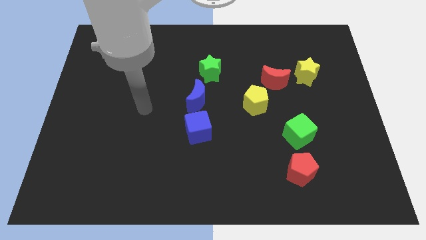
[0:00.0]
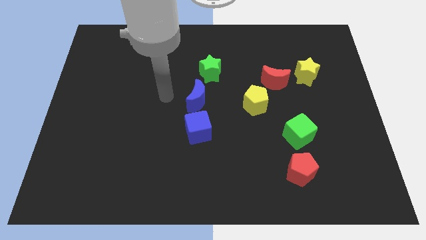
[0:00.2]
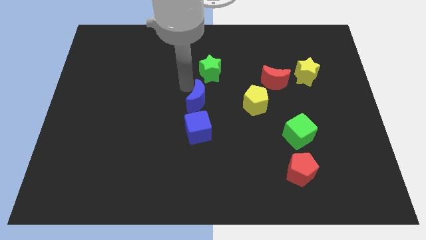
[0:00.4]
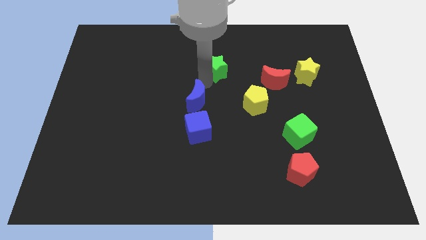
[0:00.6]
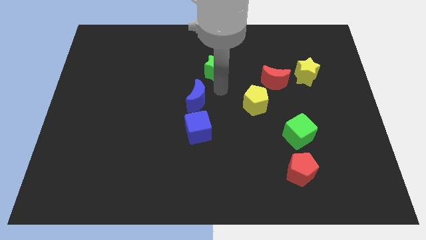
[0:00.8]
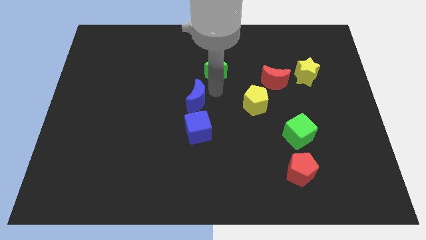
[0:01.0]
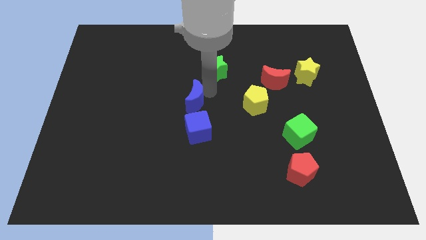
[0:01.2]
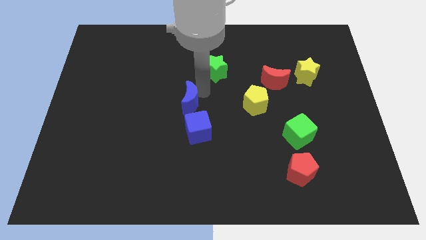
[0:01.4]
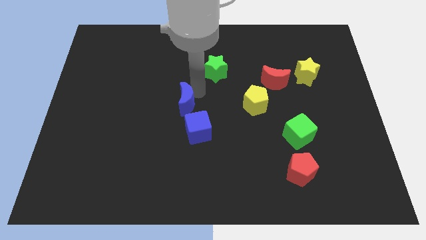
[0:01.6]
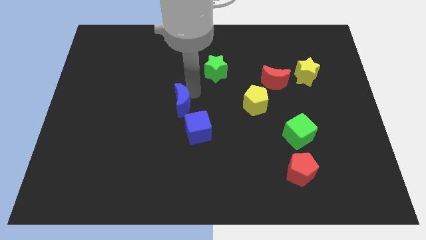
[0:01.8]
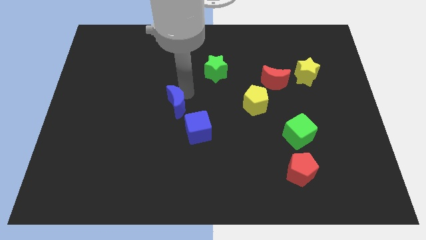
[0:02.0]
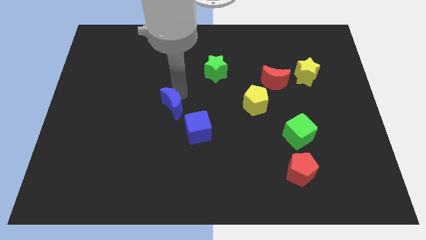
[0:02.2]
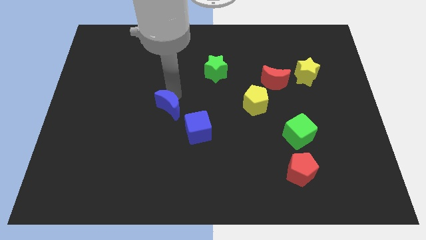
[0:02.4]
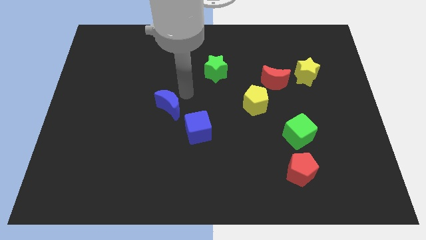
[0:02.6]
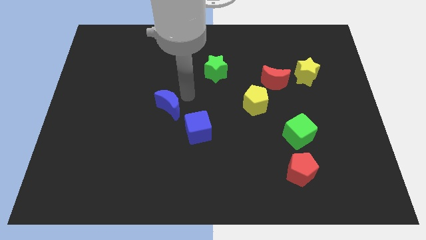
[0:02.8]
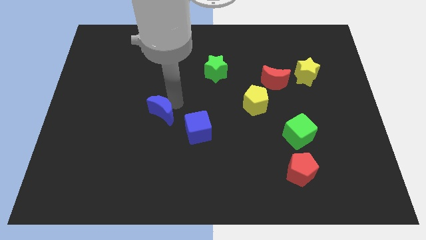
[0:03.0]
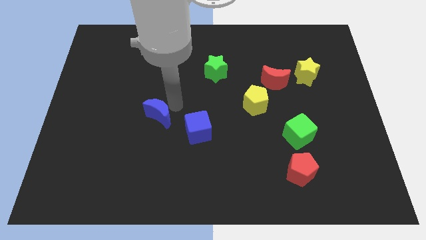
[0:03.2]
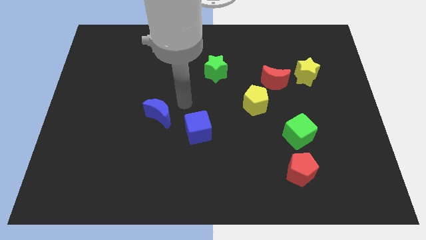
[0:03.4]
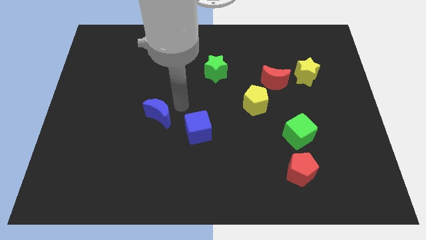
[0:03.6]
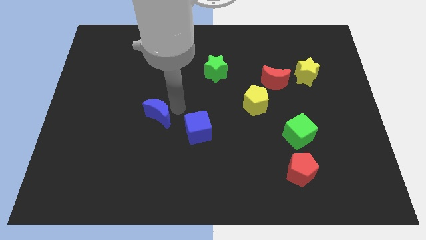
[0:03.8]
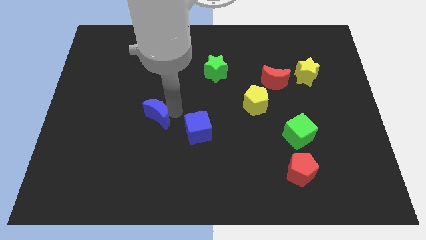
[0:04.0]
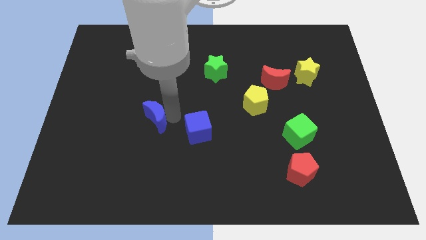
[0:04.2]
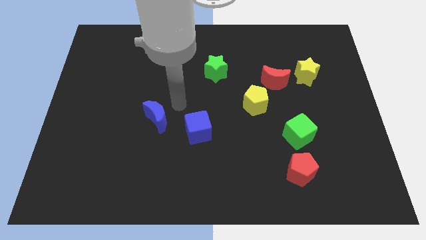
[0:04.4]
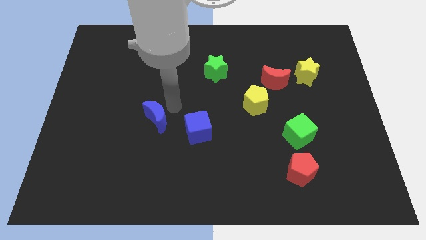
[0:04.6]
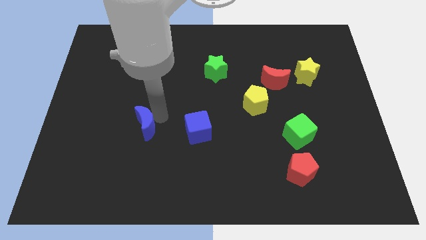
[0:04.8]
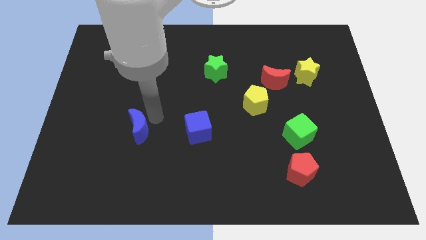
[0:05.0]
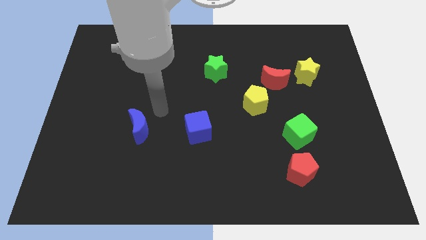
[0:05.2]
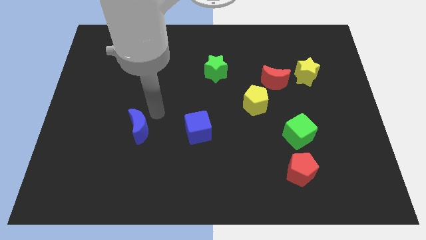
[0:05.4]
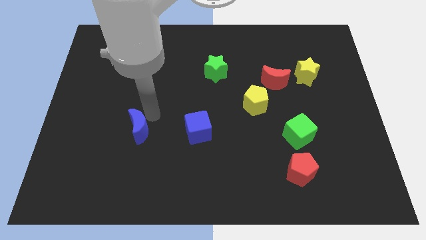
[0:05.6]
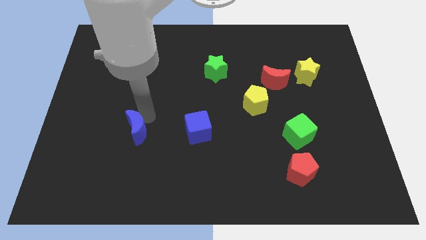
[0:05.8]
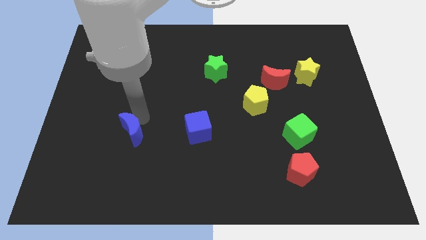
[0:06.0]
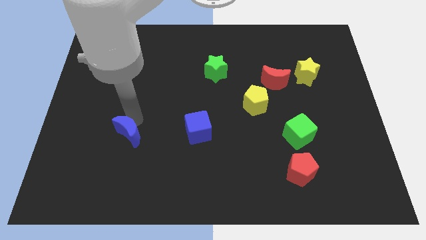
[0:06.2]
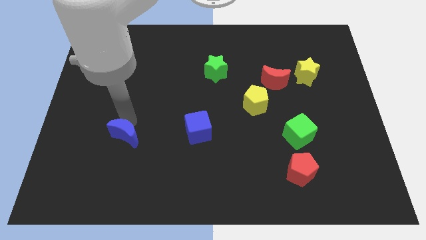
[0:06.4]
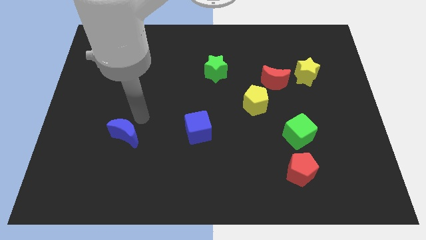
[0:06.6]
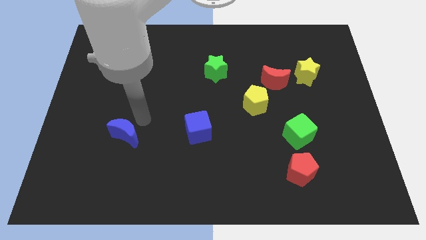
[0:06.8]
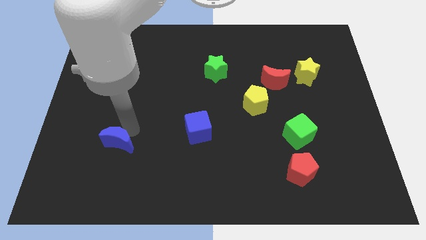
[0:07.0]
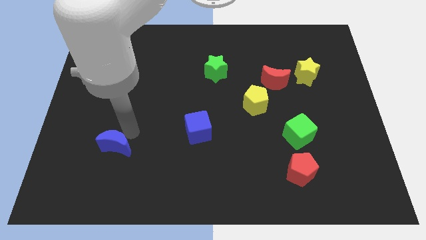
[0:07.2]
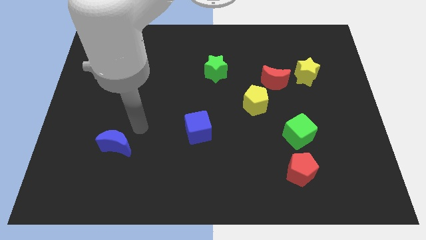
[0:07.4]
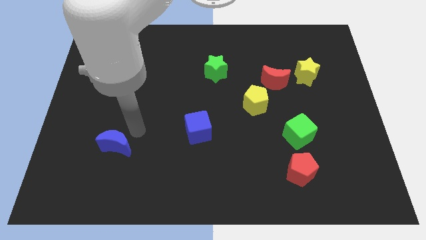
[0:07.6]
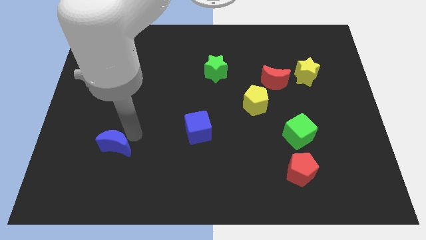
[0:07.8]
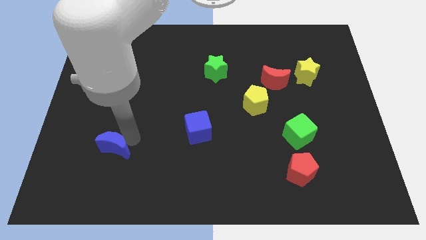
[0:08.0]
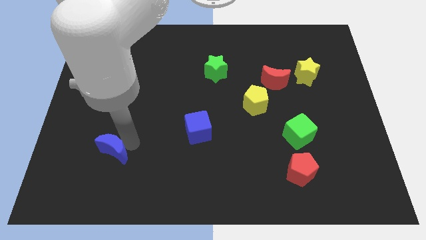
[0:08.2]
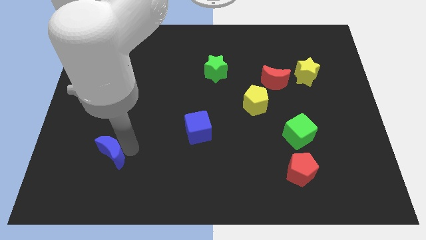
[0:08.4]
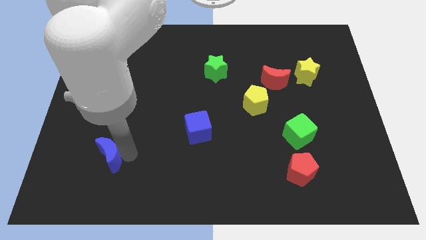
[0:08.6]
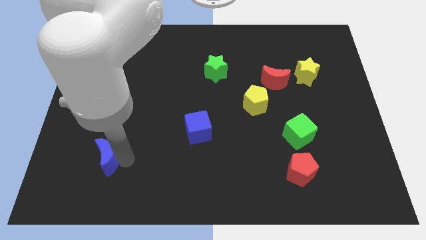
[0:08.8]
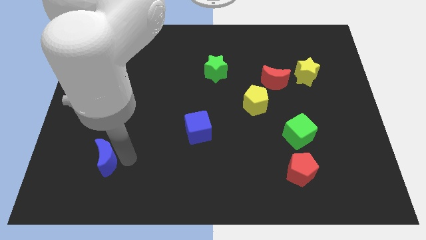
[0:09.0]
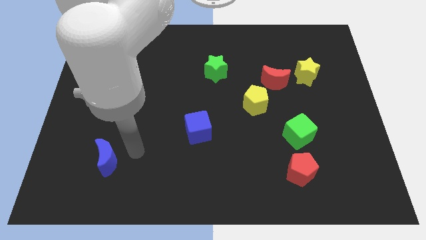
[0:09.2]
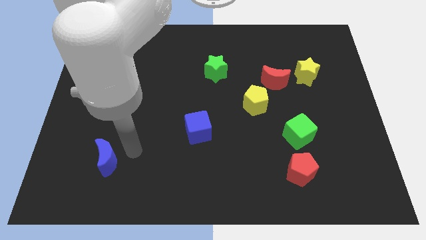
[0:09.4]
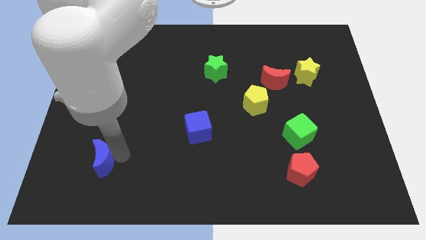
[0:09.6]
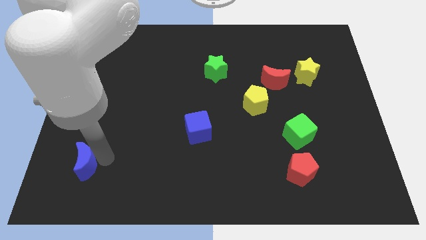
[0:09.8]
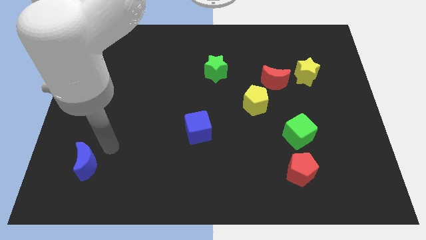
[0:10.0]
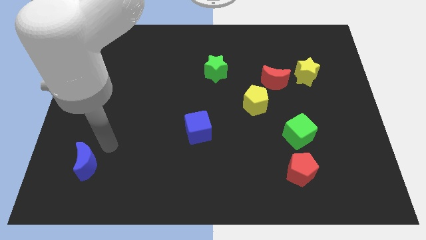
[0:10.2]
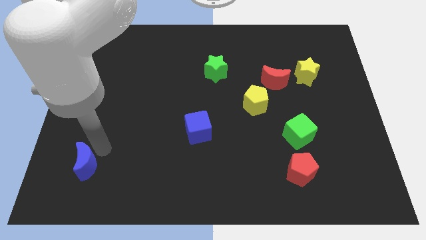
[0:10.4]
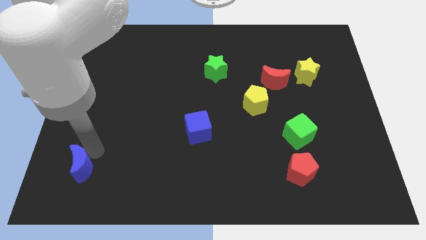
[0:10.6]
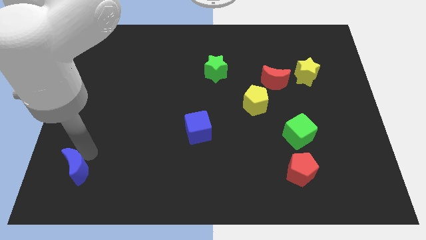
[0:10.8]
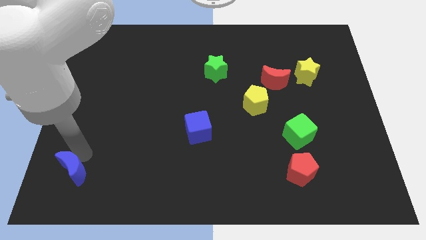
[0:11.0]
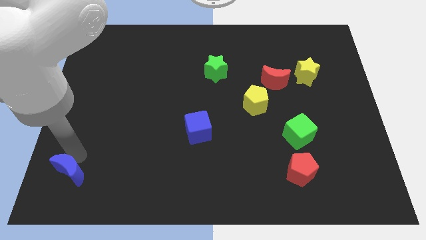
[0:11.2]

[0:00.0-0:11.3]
slide the blue moon to the bottom left corner

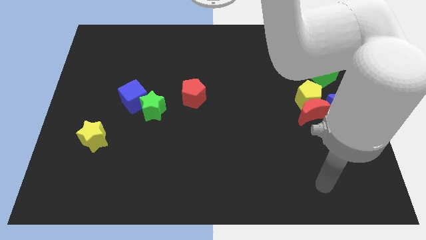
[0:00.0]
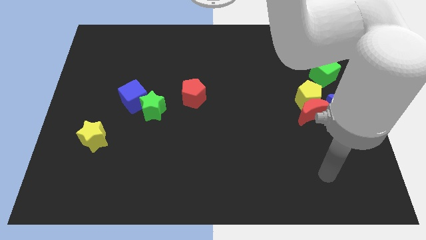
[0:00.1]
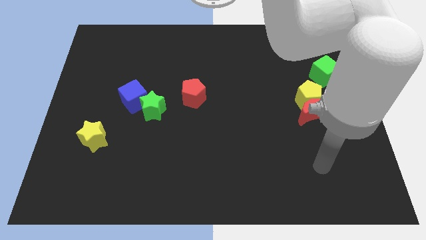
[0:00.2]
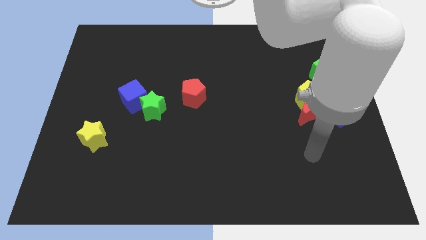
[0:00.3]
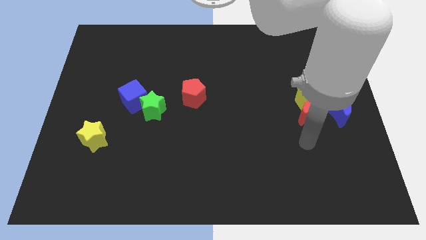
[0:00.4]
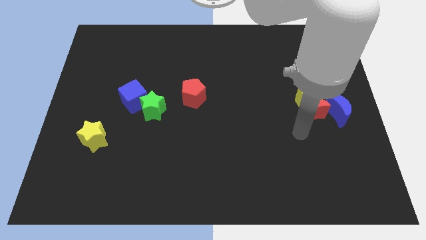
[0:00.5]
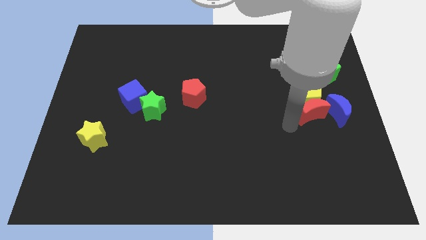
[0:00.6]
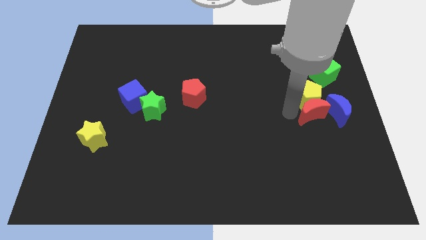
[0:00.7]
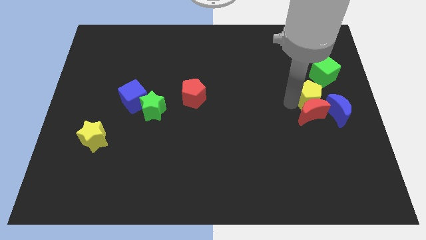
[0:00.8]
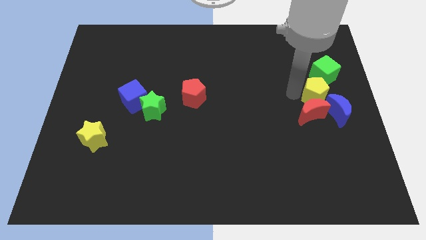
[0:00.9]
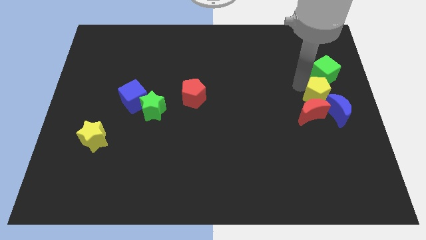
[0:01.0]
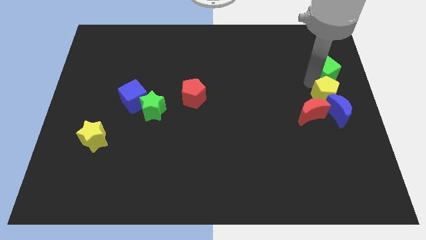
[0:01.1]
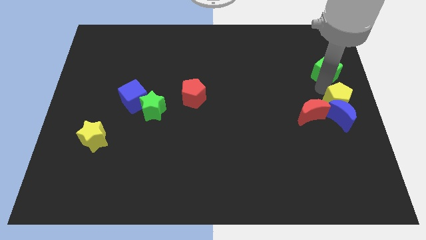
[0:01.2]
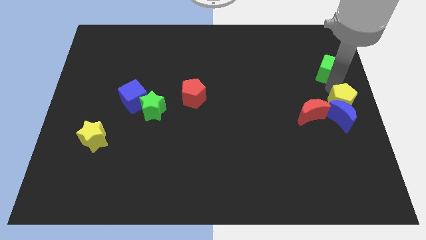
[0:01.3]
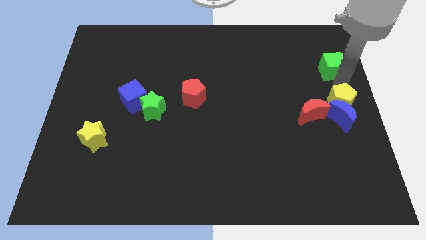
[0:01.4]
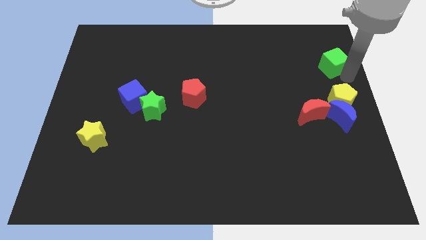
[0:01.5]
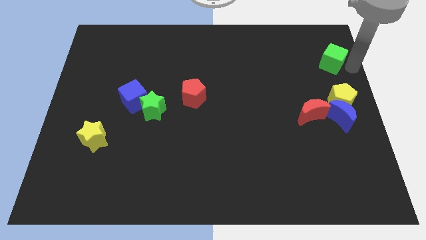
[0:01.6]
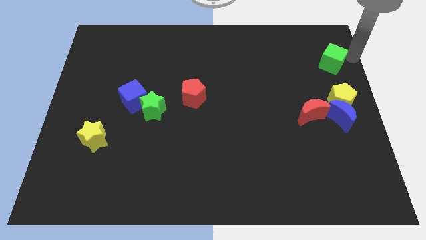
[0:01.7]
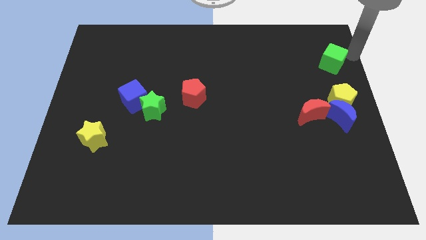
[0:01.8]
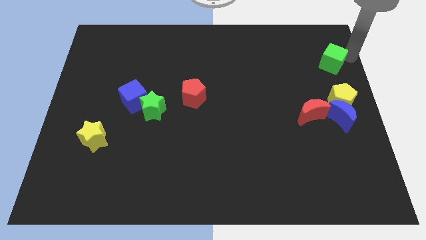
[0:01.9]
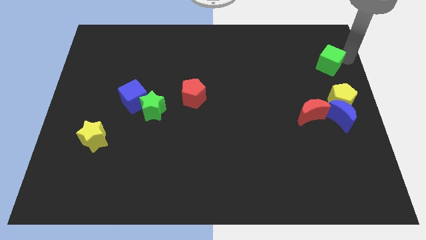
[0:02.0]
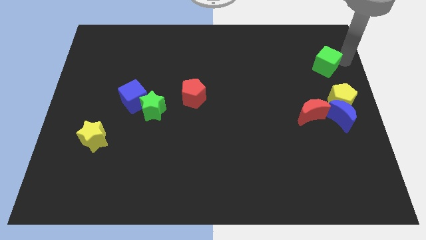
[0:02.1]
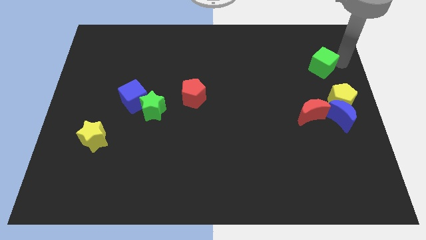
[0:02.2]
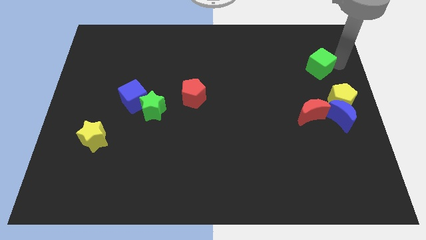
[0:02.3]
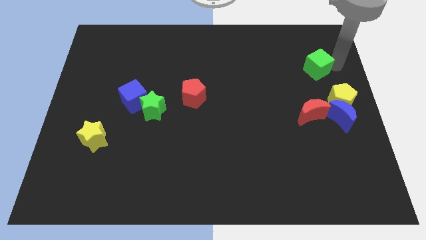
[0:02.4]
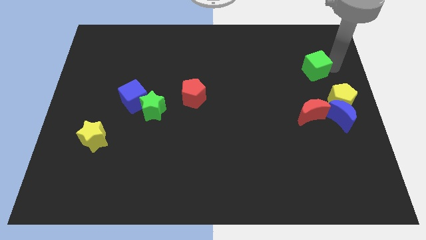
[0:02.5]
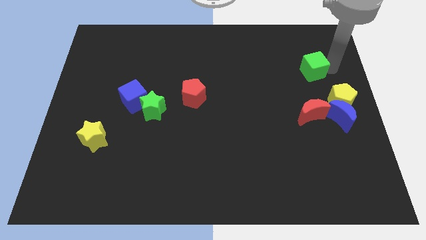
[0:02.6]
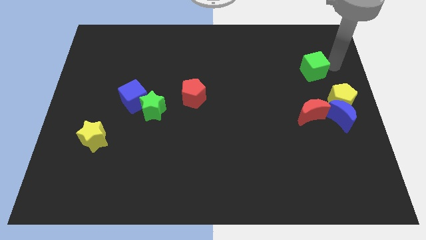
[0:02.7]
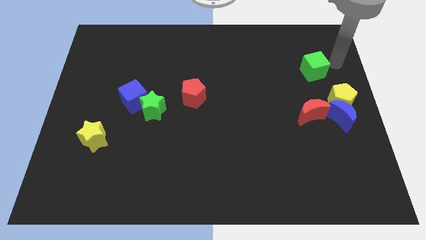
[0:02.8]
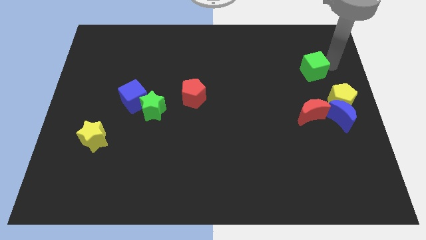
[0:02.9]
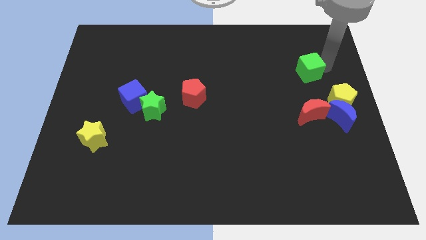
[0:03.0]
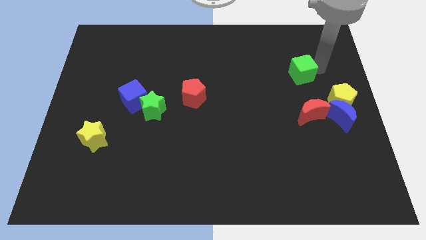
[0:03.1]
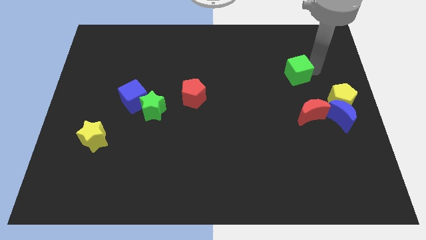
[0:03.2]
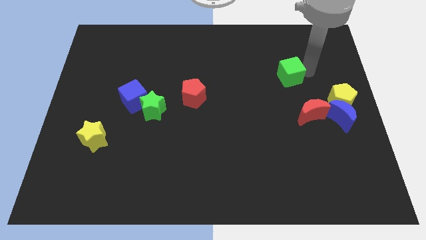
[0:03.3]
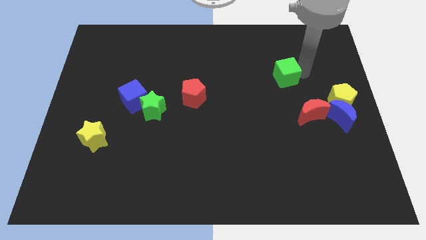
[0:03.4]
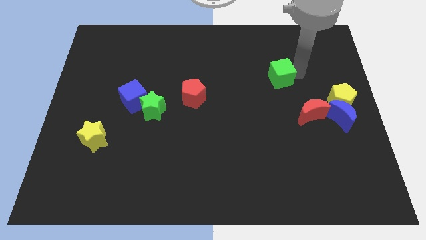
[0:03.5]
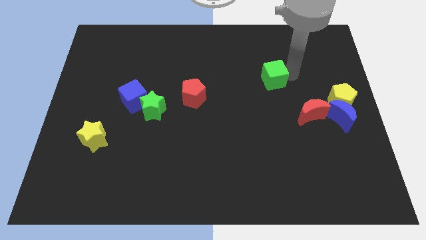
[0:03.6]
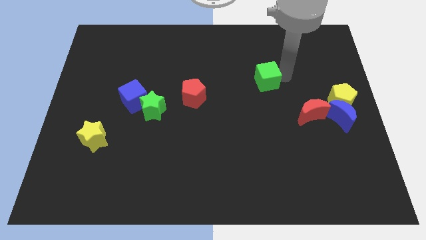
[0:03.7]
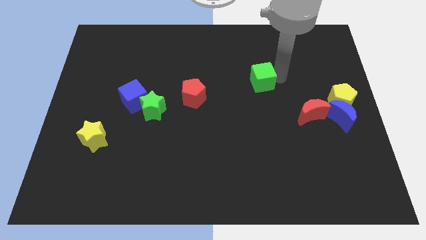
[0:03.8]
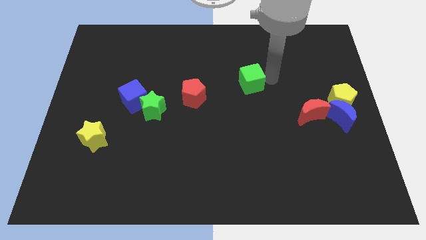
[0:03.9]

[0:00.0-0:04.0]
put the green cube to the middle
